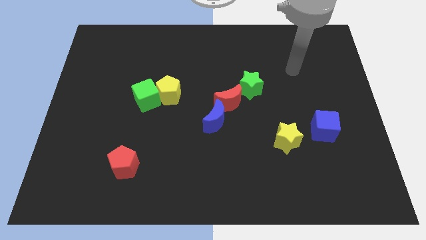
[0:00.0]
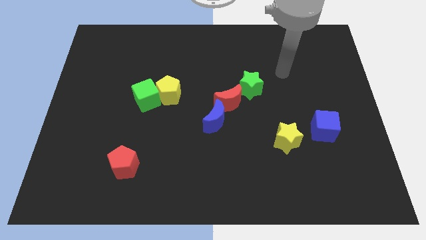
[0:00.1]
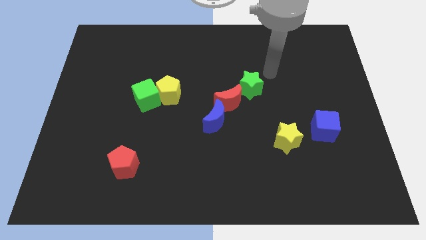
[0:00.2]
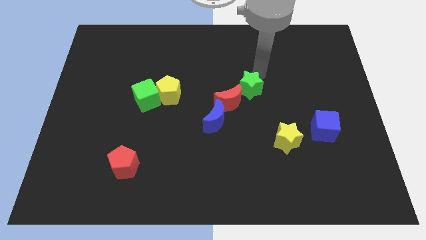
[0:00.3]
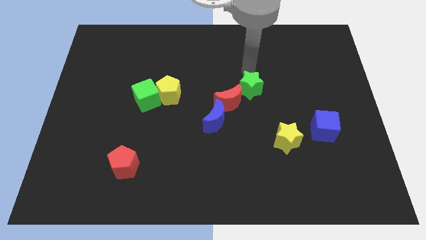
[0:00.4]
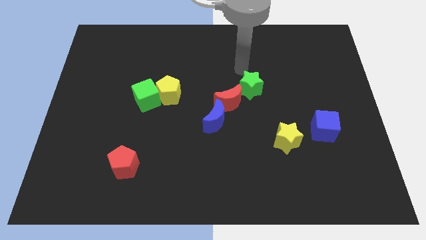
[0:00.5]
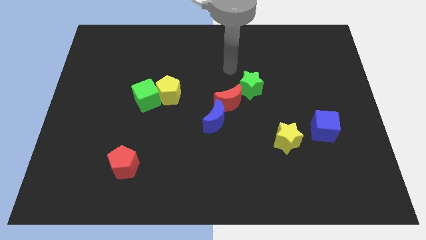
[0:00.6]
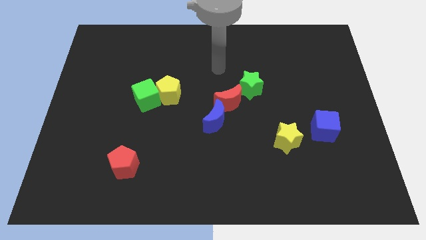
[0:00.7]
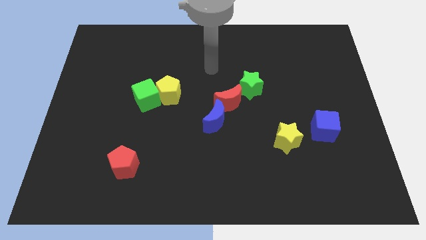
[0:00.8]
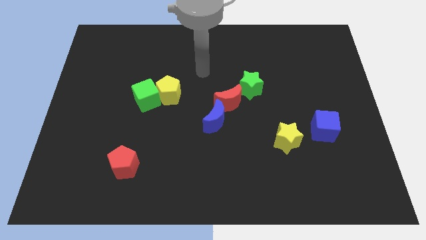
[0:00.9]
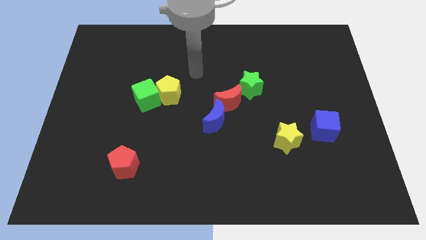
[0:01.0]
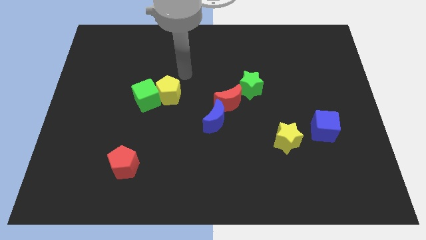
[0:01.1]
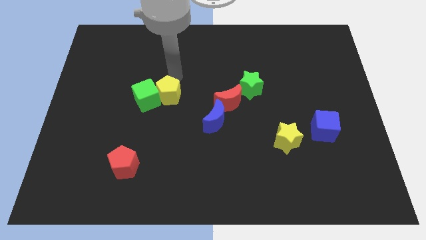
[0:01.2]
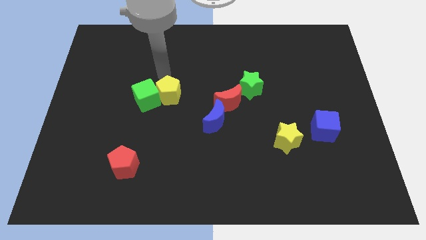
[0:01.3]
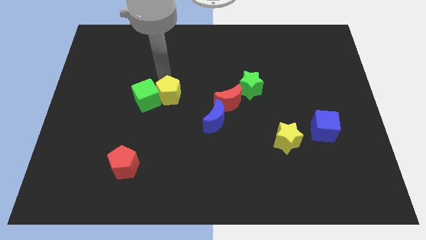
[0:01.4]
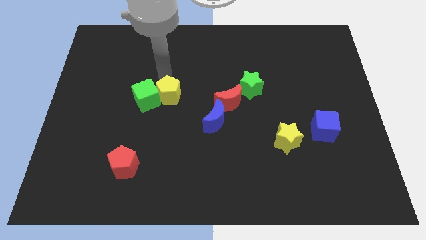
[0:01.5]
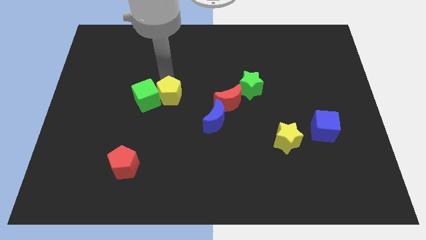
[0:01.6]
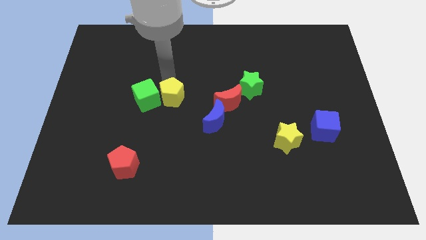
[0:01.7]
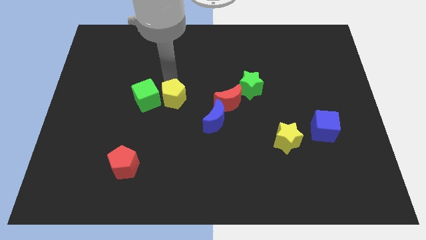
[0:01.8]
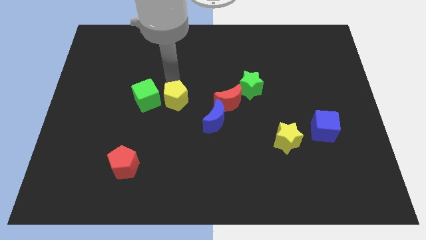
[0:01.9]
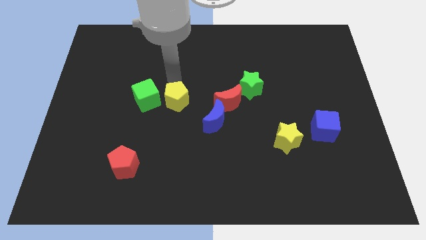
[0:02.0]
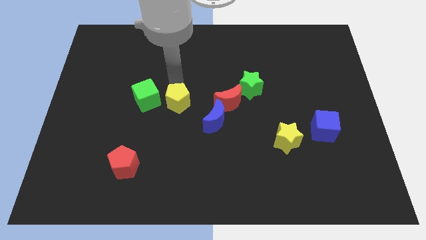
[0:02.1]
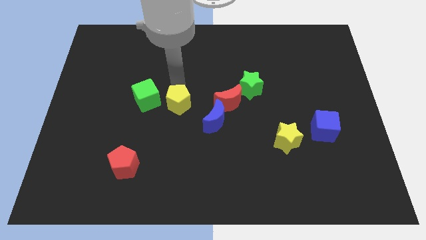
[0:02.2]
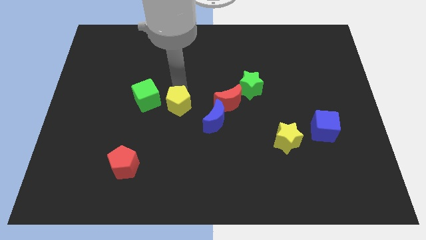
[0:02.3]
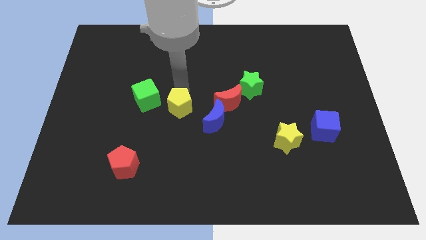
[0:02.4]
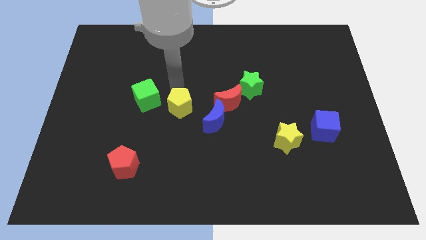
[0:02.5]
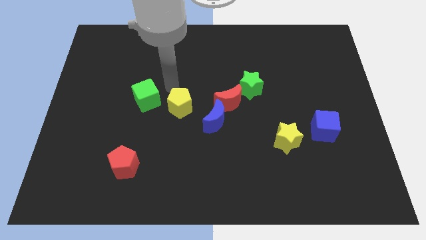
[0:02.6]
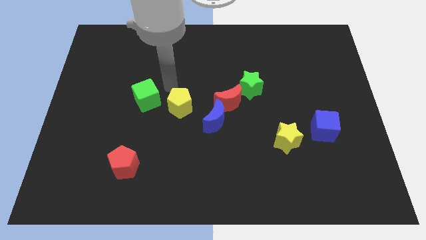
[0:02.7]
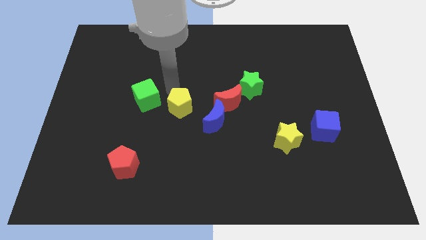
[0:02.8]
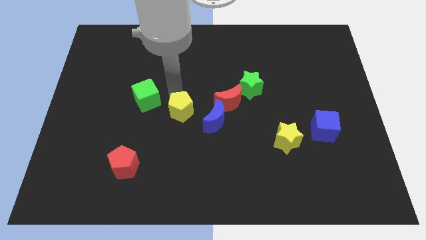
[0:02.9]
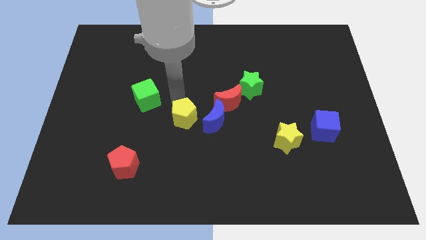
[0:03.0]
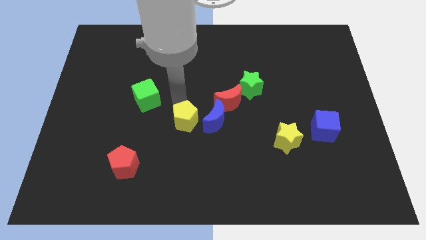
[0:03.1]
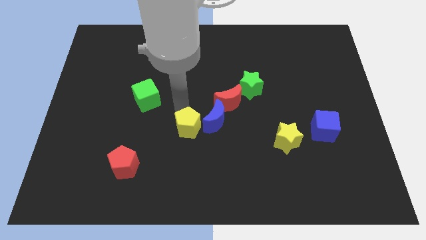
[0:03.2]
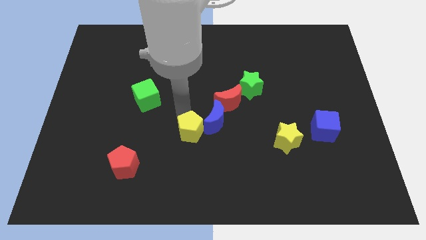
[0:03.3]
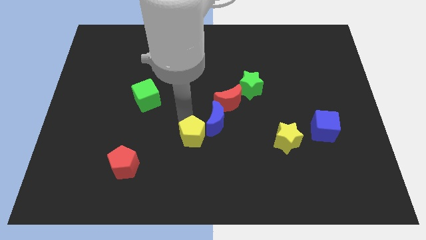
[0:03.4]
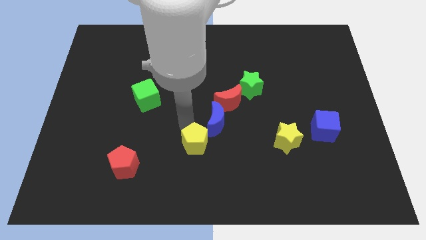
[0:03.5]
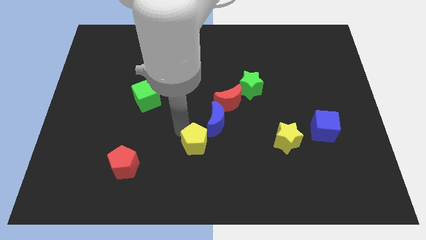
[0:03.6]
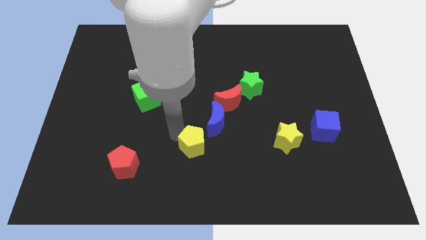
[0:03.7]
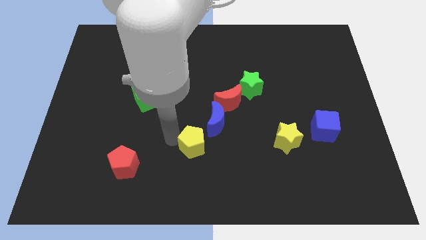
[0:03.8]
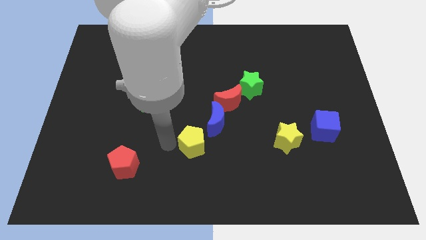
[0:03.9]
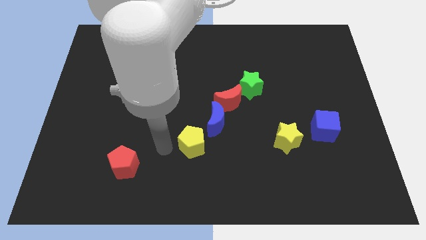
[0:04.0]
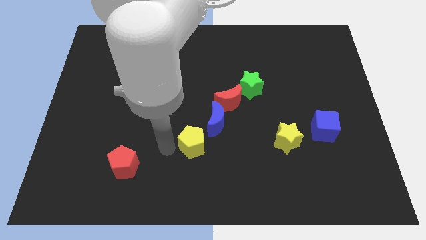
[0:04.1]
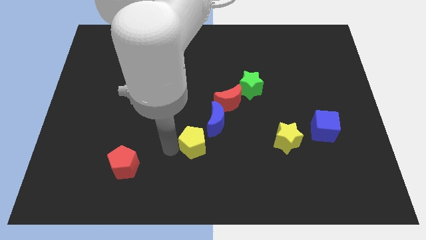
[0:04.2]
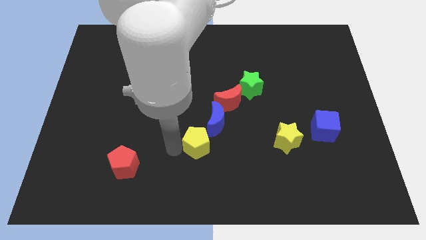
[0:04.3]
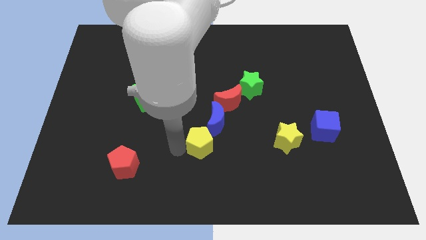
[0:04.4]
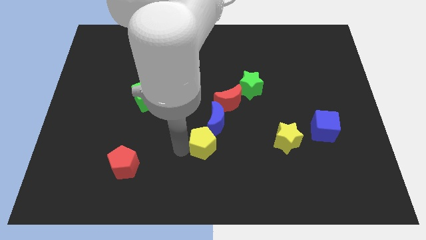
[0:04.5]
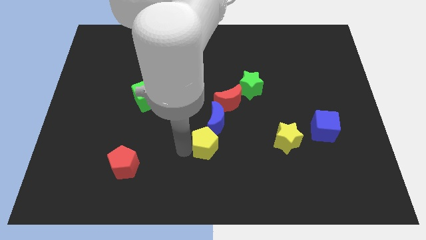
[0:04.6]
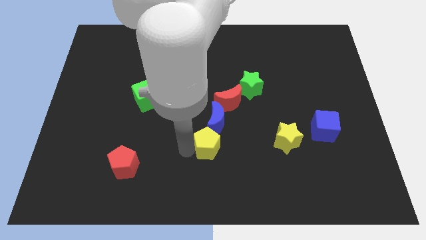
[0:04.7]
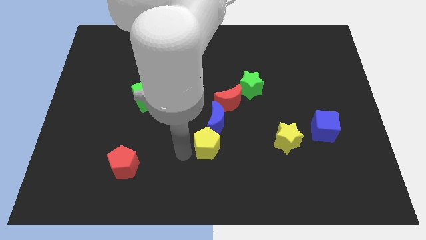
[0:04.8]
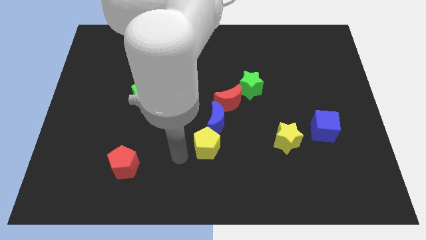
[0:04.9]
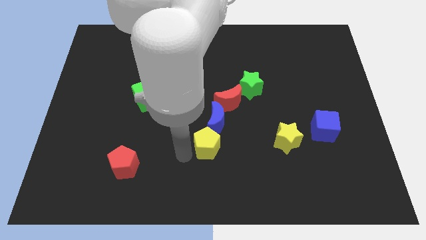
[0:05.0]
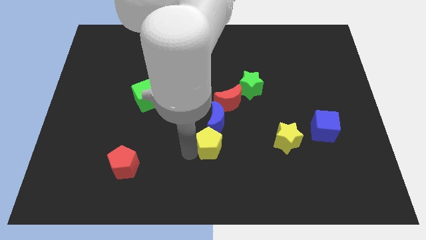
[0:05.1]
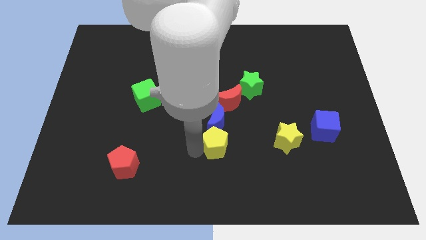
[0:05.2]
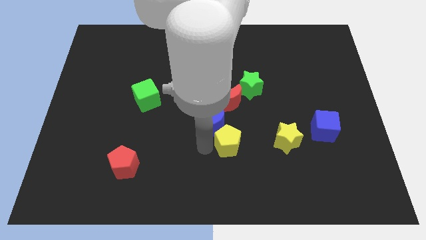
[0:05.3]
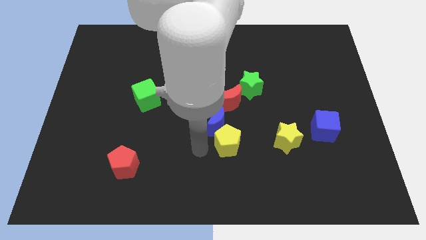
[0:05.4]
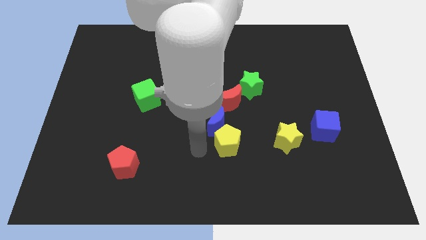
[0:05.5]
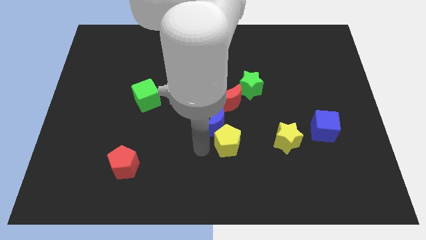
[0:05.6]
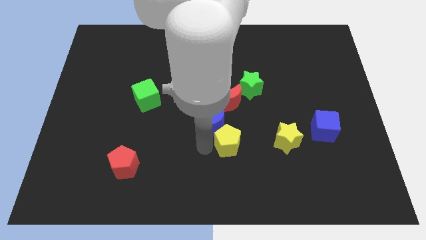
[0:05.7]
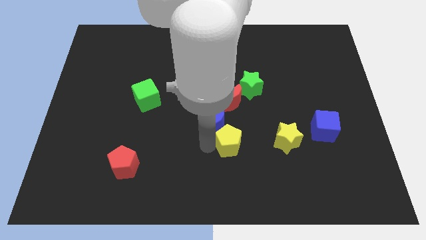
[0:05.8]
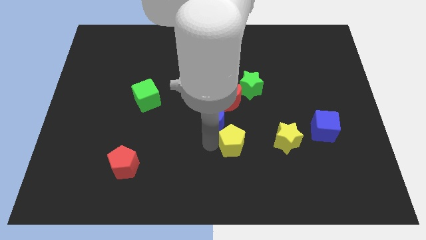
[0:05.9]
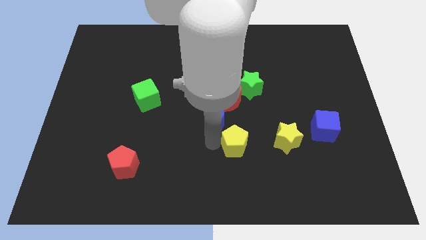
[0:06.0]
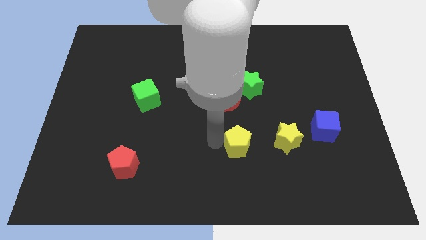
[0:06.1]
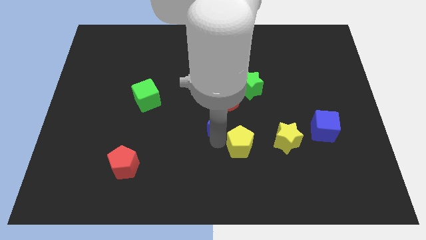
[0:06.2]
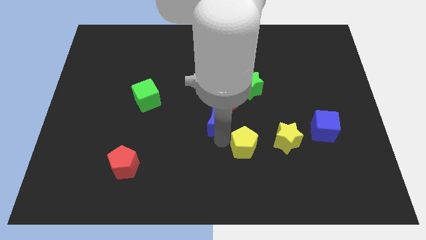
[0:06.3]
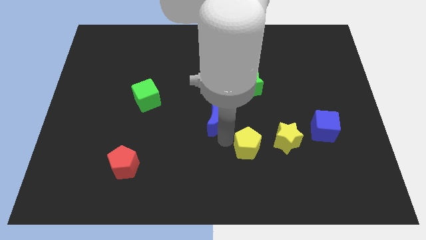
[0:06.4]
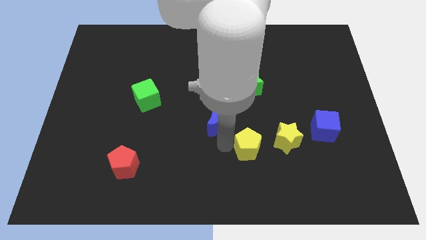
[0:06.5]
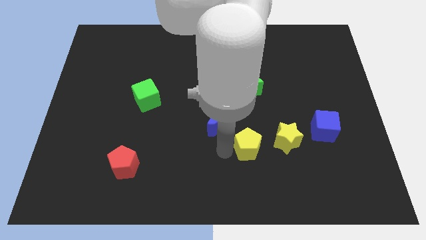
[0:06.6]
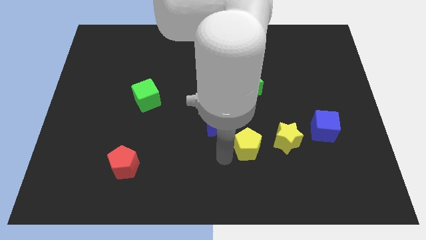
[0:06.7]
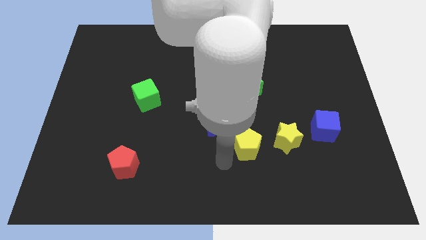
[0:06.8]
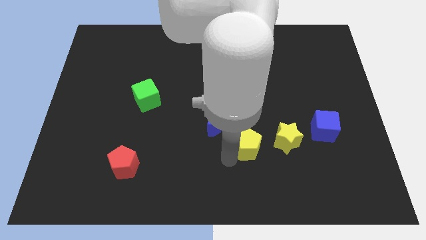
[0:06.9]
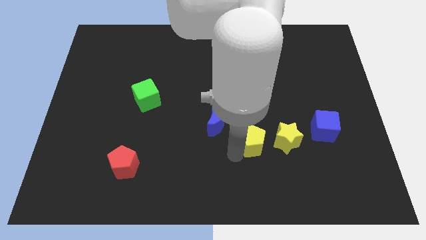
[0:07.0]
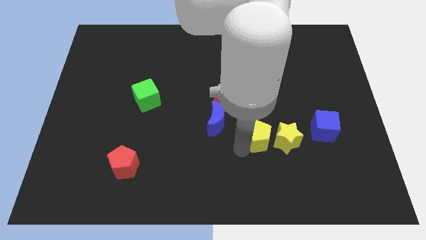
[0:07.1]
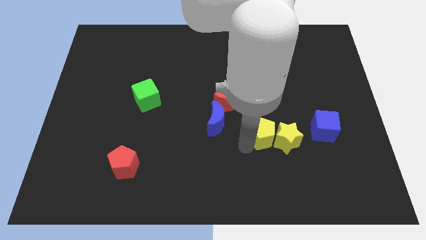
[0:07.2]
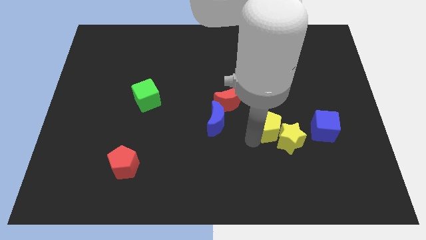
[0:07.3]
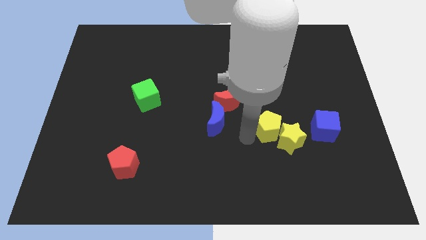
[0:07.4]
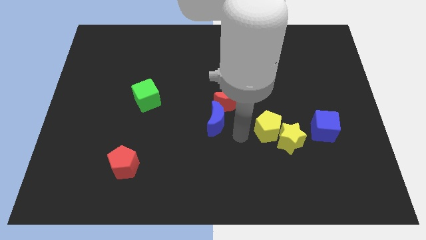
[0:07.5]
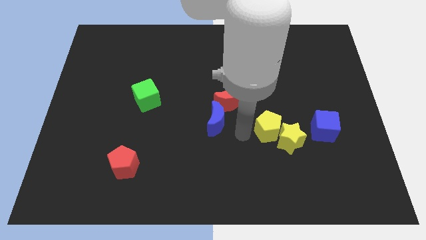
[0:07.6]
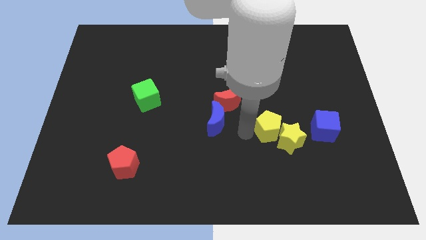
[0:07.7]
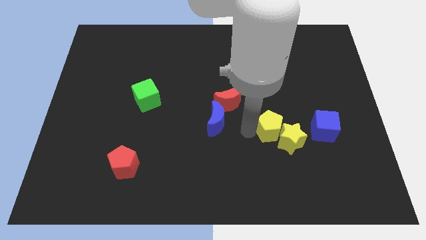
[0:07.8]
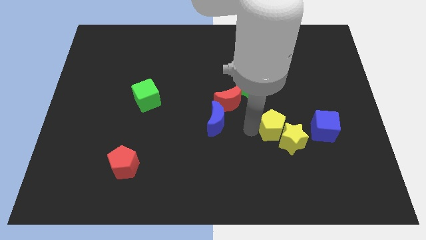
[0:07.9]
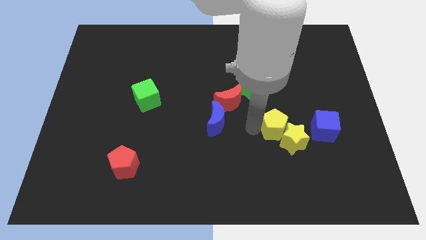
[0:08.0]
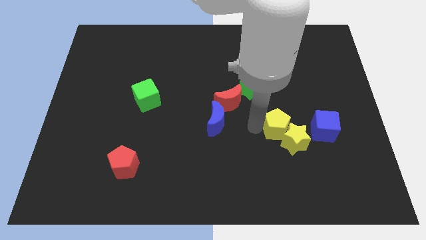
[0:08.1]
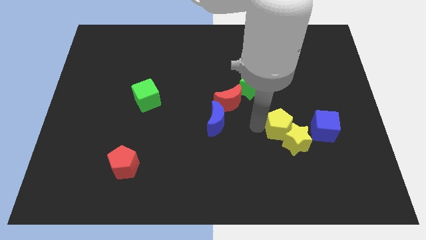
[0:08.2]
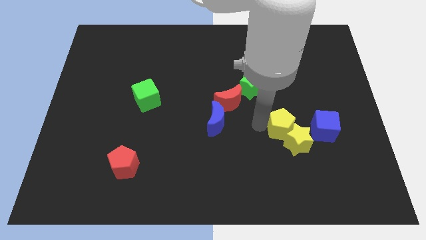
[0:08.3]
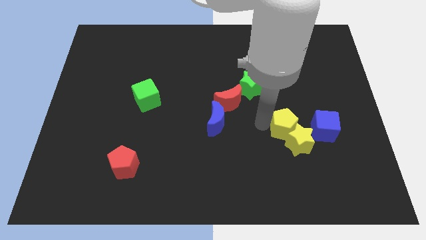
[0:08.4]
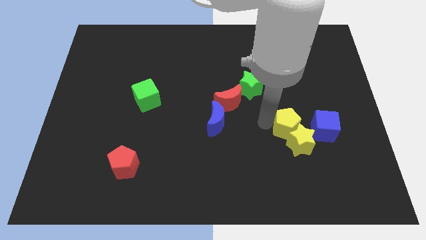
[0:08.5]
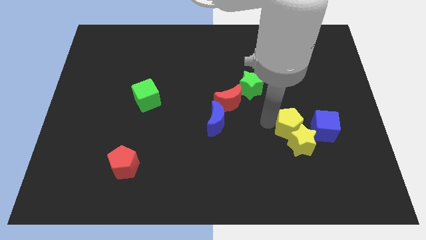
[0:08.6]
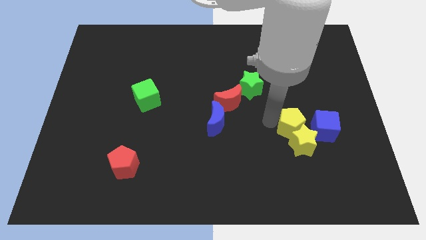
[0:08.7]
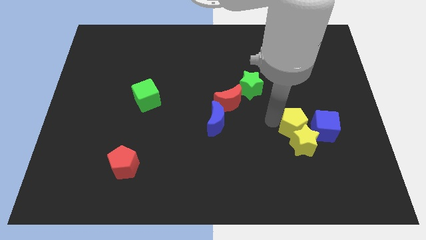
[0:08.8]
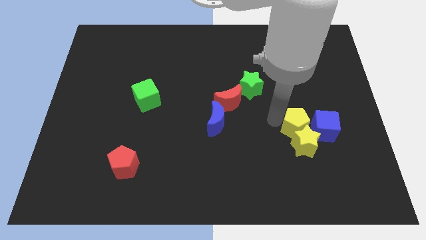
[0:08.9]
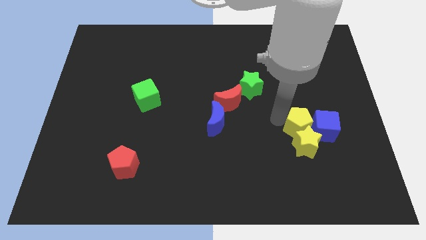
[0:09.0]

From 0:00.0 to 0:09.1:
move the yellow pentagon next to the blue cube
